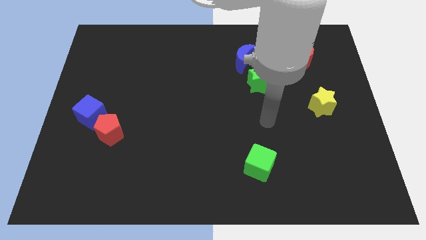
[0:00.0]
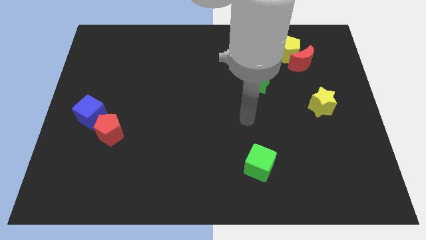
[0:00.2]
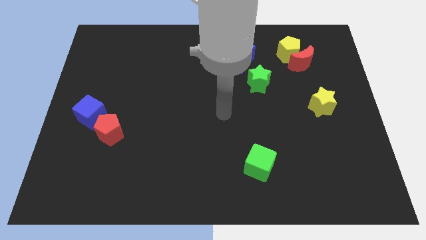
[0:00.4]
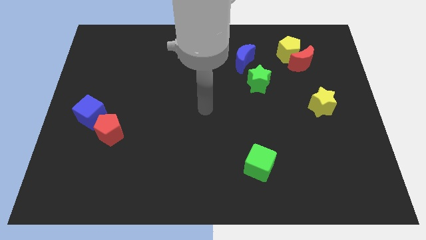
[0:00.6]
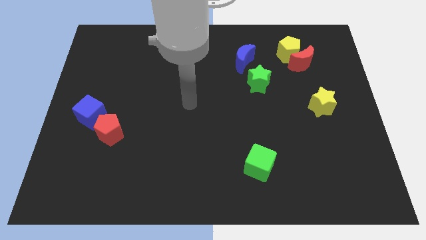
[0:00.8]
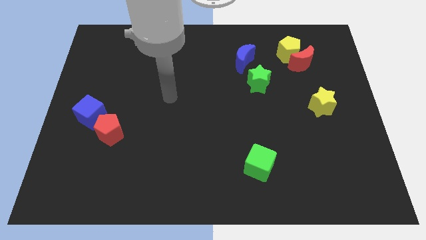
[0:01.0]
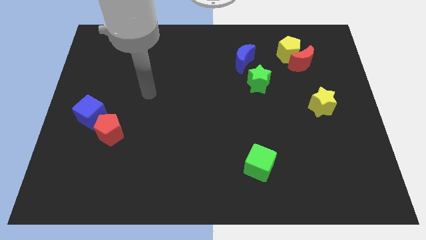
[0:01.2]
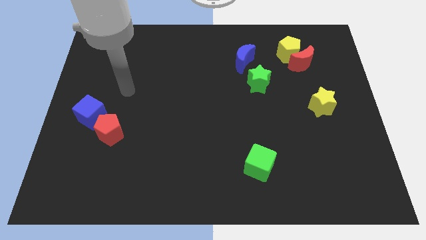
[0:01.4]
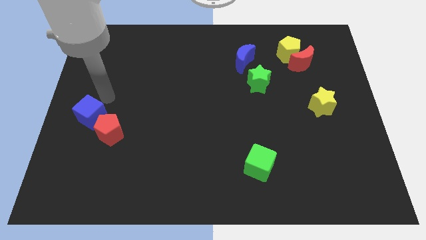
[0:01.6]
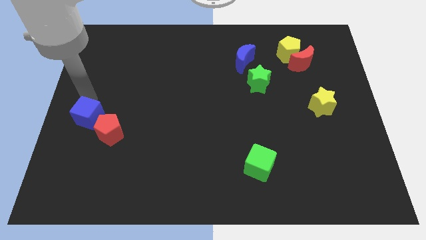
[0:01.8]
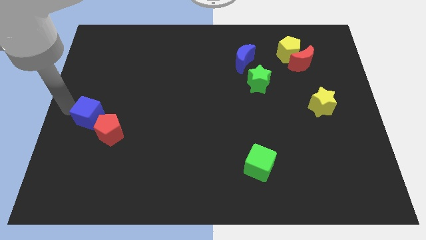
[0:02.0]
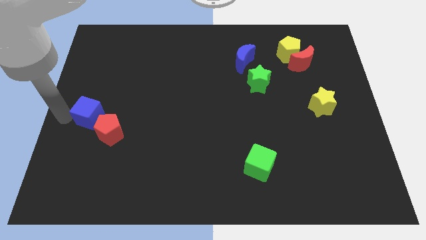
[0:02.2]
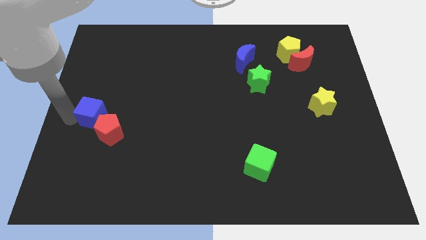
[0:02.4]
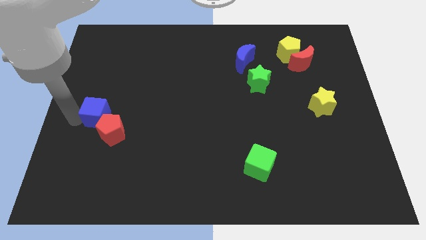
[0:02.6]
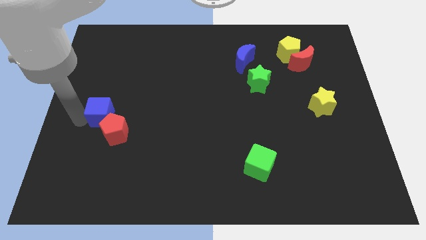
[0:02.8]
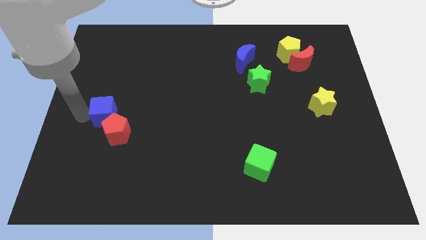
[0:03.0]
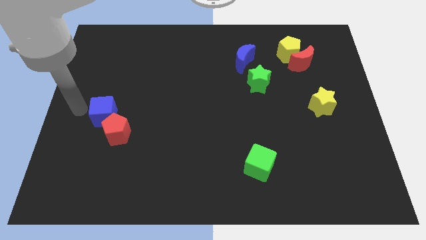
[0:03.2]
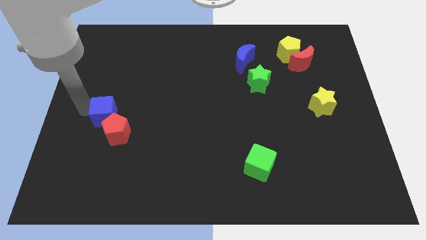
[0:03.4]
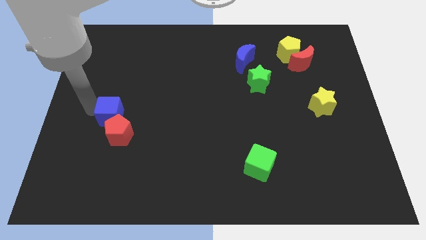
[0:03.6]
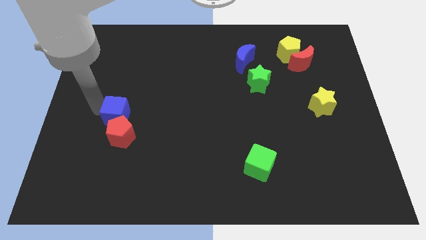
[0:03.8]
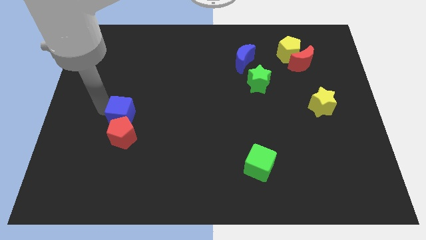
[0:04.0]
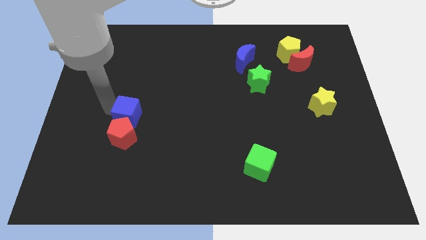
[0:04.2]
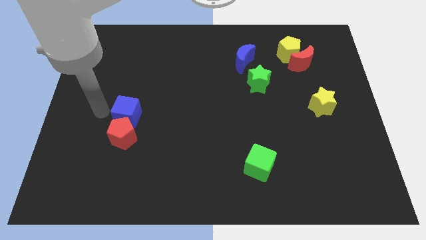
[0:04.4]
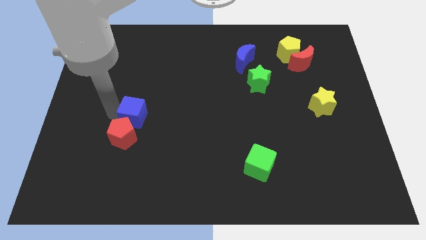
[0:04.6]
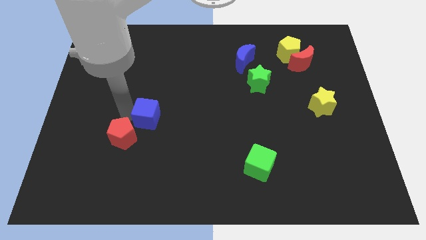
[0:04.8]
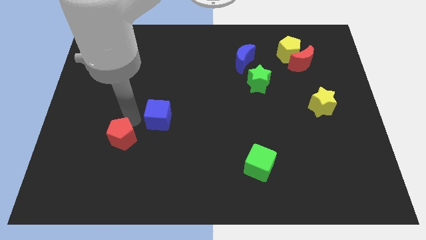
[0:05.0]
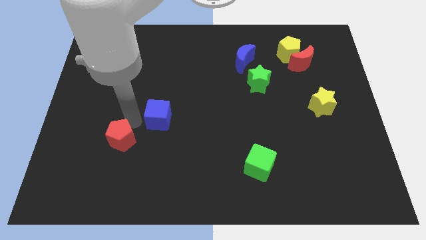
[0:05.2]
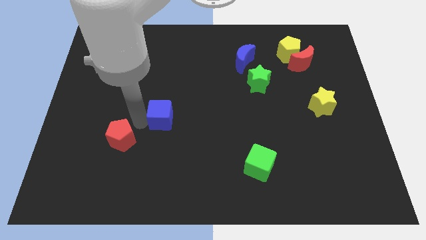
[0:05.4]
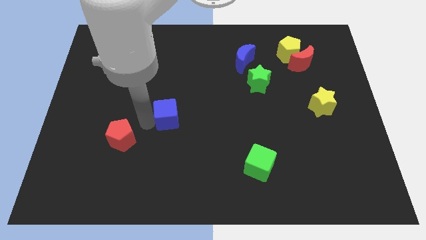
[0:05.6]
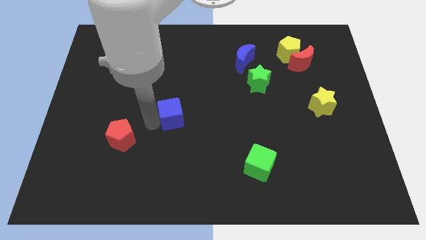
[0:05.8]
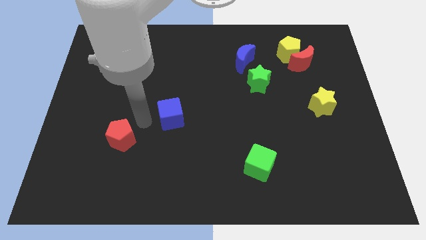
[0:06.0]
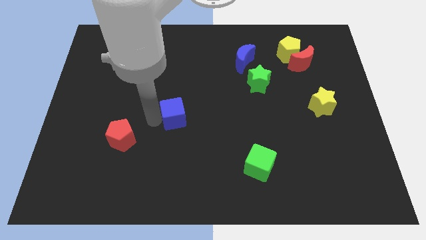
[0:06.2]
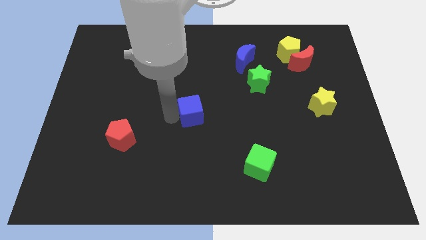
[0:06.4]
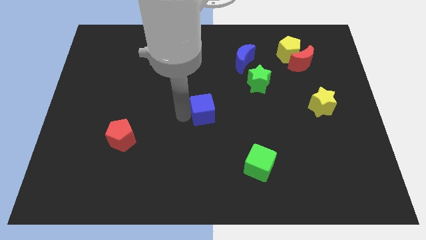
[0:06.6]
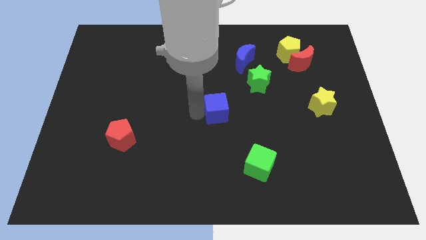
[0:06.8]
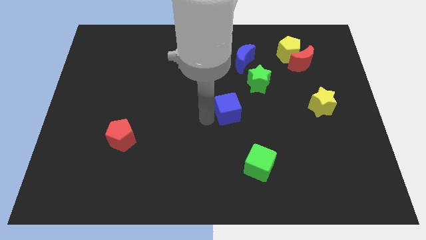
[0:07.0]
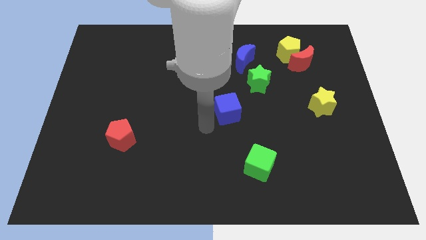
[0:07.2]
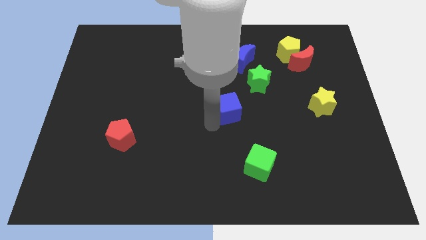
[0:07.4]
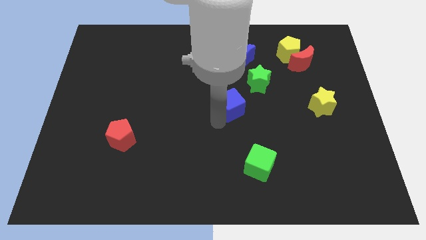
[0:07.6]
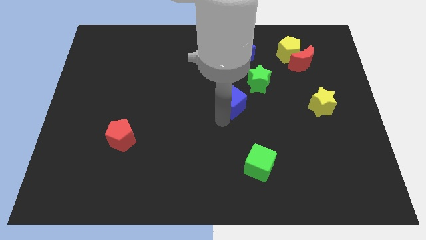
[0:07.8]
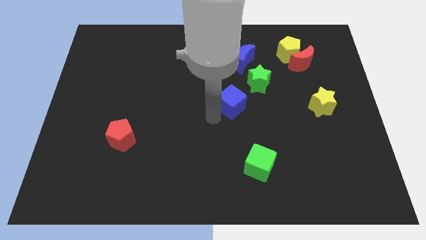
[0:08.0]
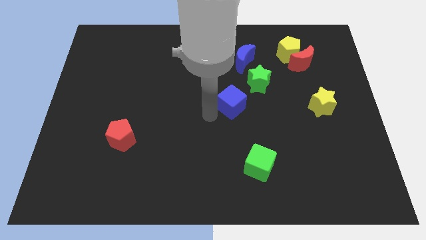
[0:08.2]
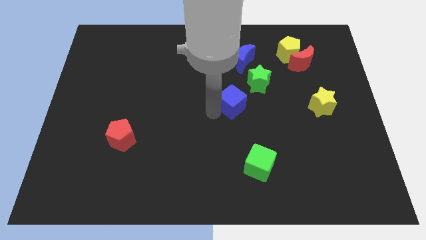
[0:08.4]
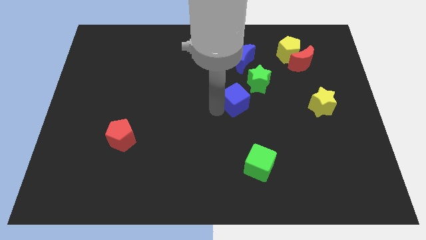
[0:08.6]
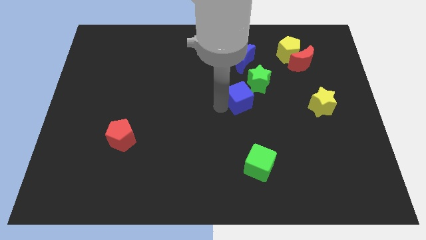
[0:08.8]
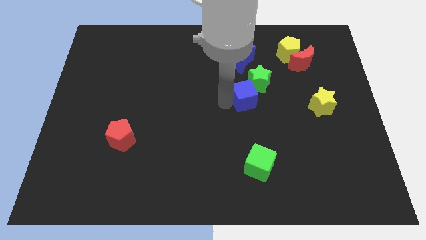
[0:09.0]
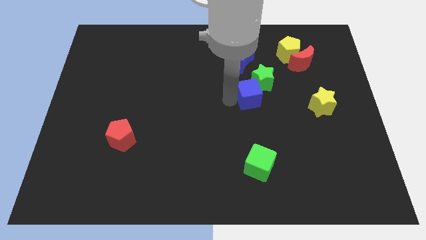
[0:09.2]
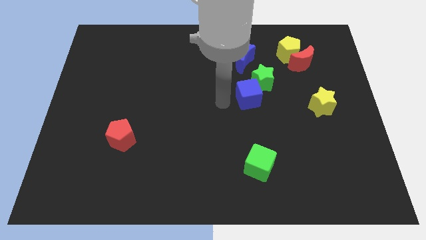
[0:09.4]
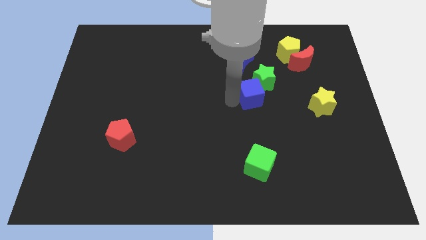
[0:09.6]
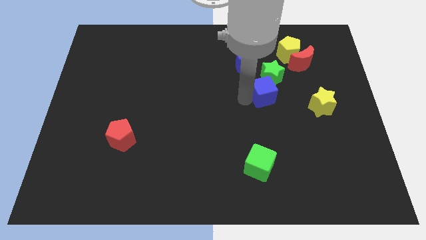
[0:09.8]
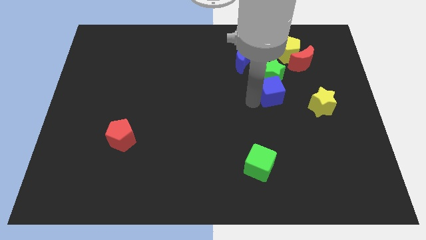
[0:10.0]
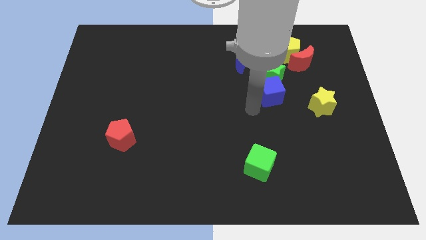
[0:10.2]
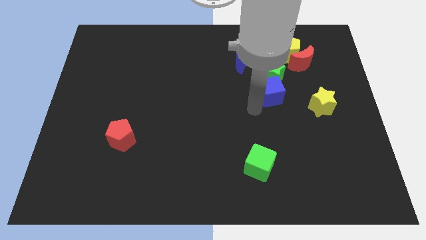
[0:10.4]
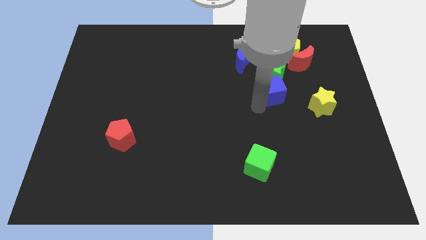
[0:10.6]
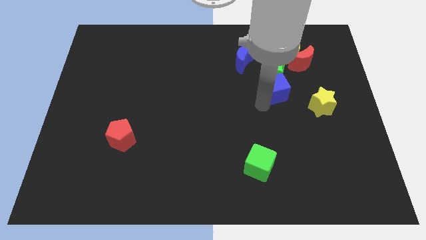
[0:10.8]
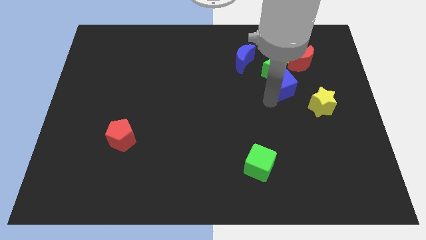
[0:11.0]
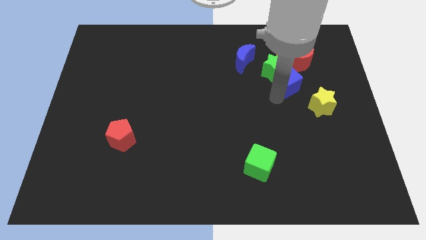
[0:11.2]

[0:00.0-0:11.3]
push the blue cube right of the green star

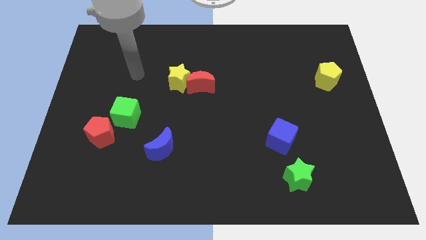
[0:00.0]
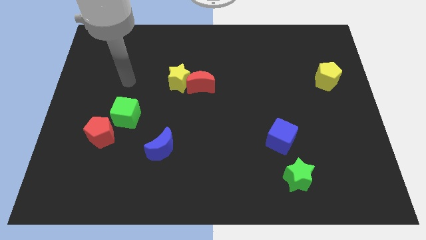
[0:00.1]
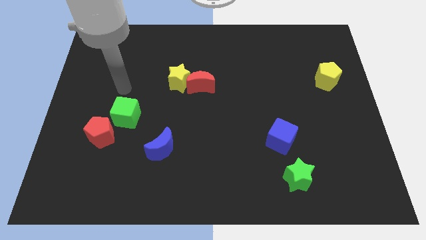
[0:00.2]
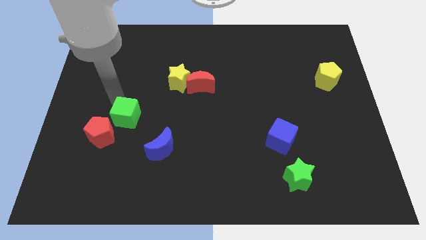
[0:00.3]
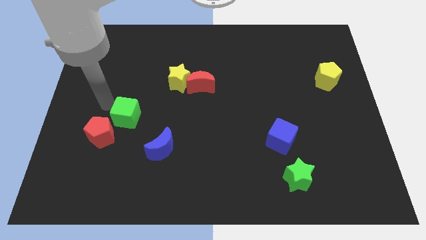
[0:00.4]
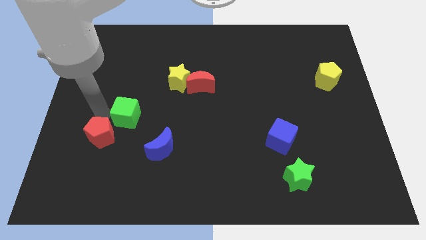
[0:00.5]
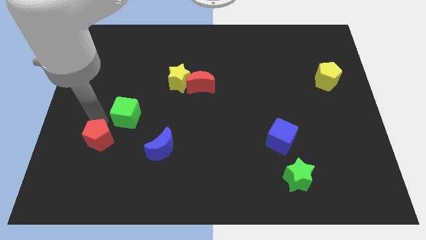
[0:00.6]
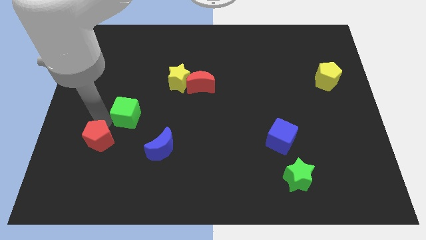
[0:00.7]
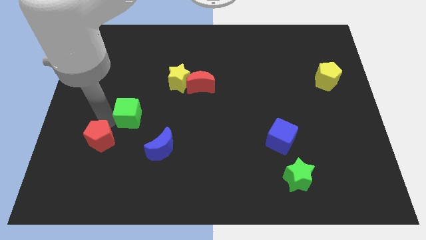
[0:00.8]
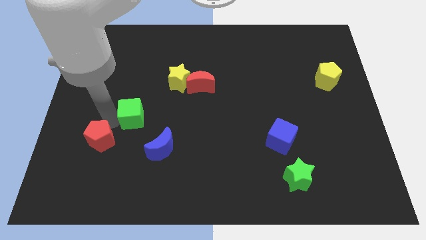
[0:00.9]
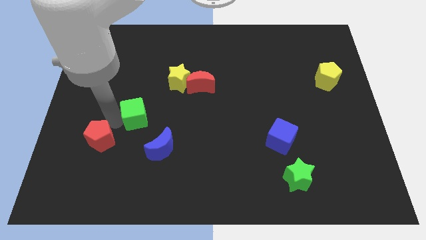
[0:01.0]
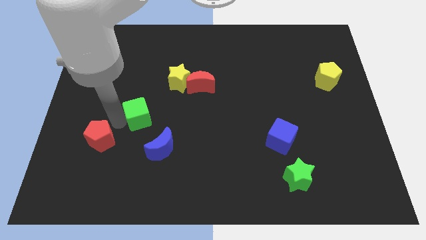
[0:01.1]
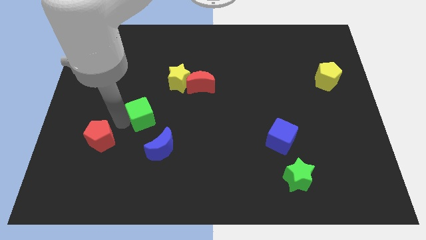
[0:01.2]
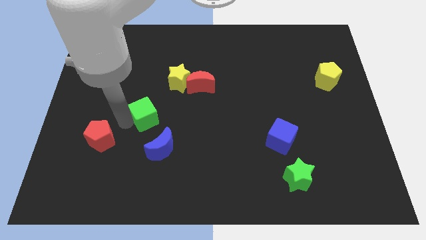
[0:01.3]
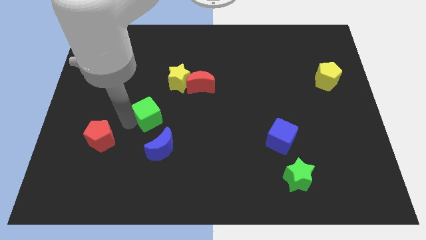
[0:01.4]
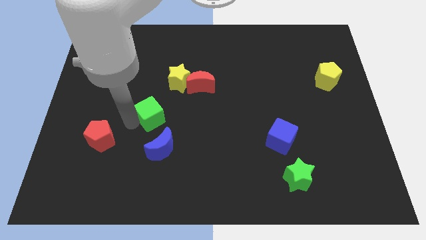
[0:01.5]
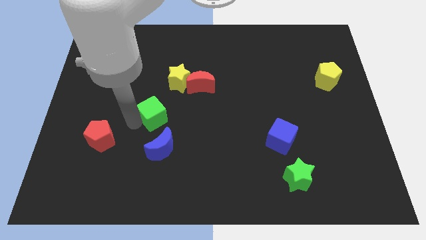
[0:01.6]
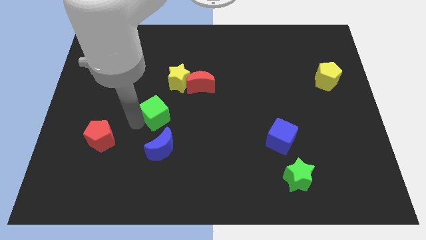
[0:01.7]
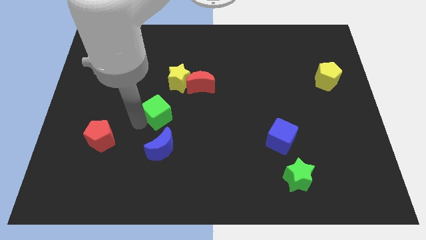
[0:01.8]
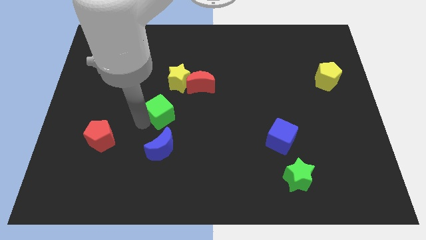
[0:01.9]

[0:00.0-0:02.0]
slide the green cube diagonally down and to the left of the red moon
